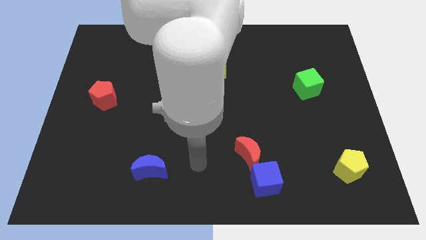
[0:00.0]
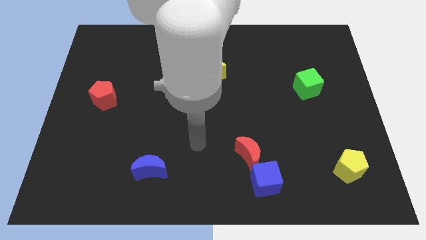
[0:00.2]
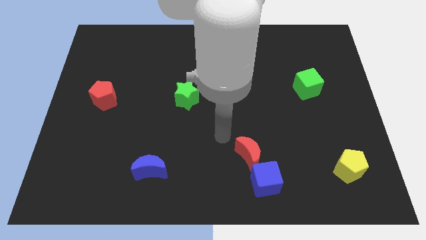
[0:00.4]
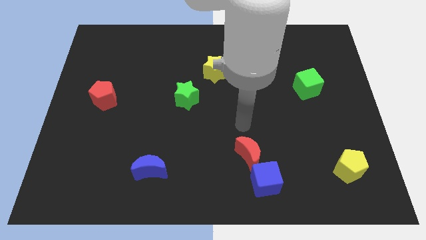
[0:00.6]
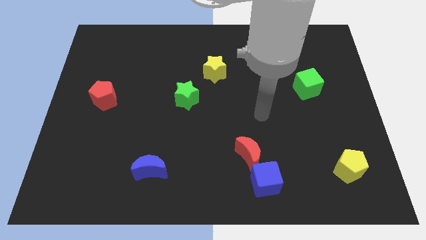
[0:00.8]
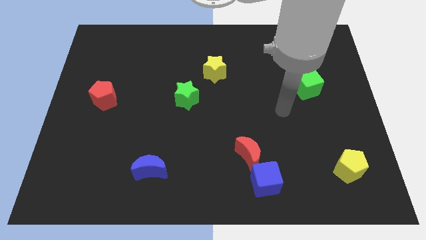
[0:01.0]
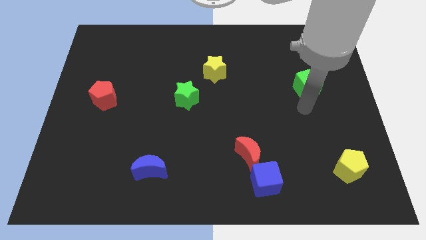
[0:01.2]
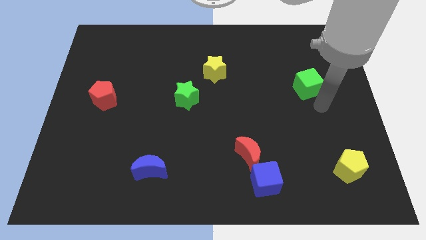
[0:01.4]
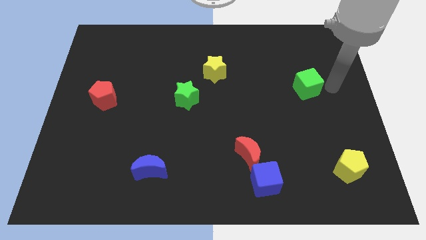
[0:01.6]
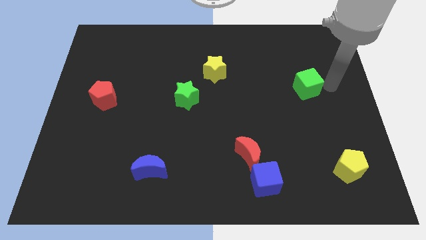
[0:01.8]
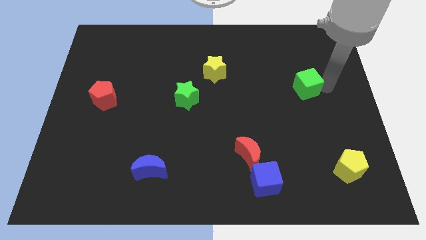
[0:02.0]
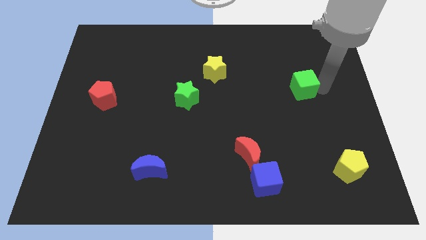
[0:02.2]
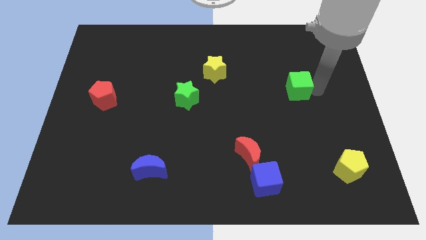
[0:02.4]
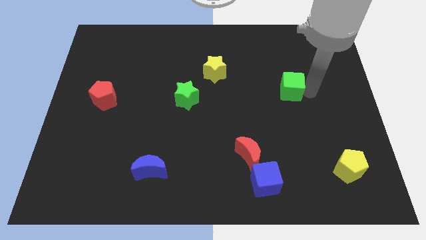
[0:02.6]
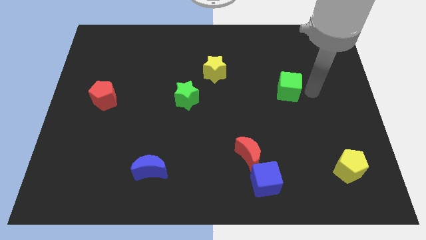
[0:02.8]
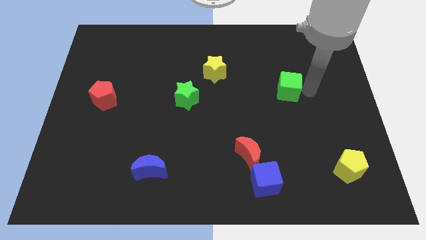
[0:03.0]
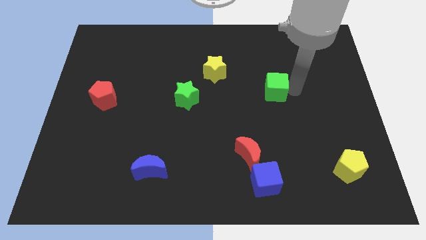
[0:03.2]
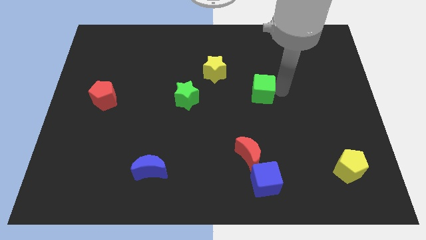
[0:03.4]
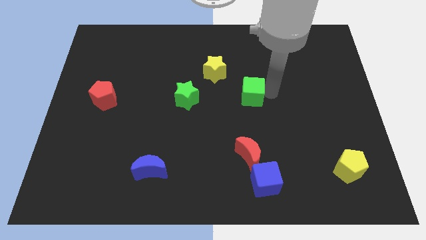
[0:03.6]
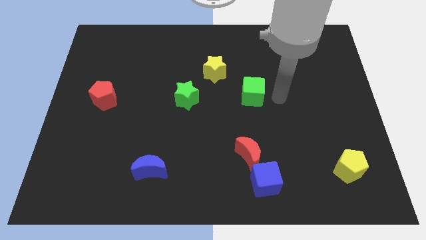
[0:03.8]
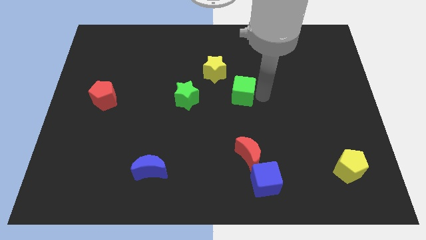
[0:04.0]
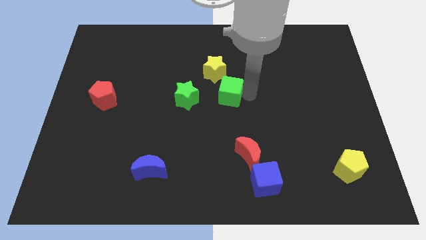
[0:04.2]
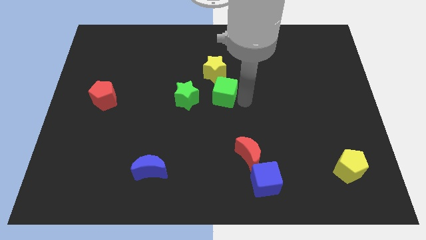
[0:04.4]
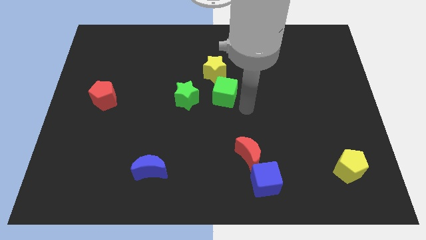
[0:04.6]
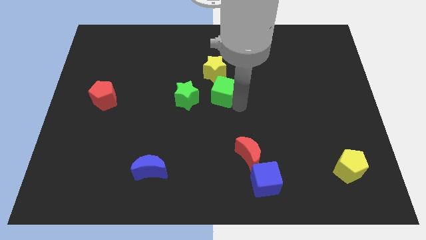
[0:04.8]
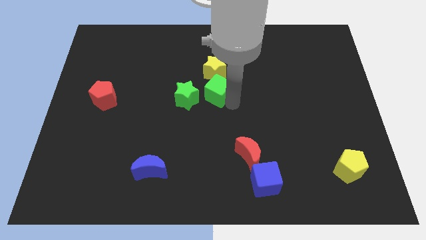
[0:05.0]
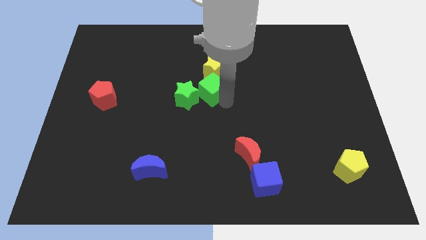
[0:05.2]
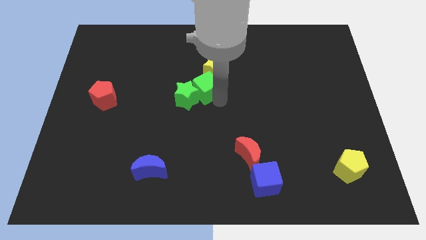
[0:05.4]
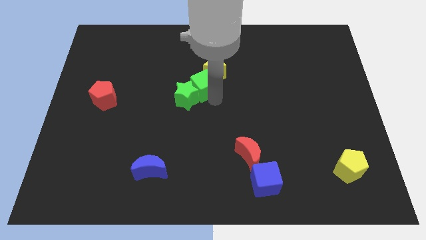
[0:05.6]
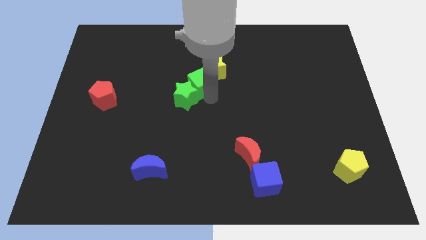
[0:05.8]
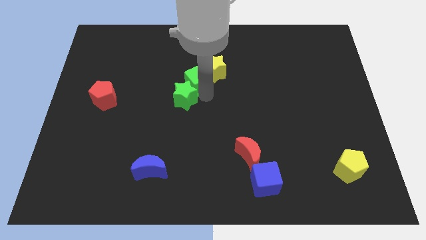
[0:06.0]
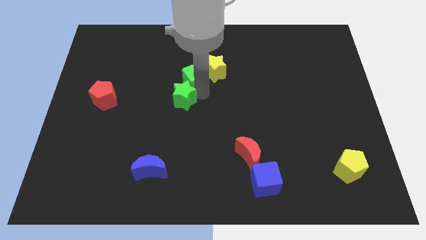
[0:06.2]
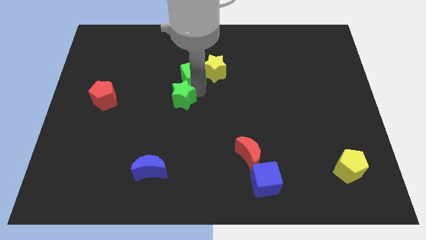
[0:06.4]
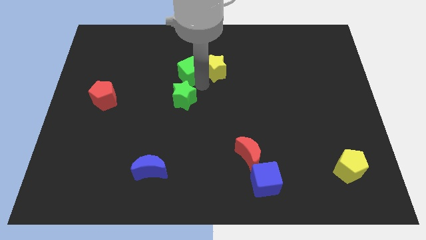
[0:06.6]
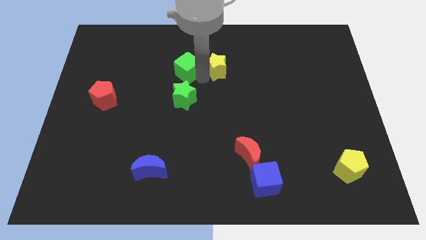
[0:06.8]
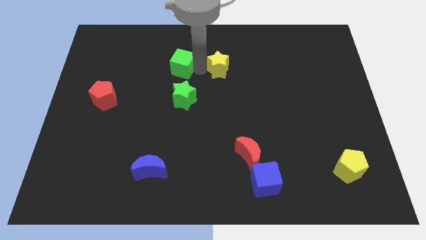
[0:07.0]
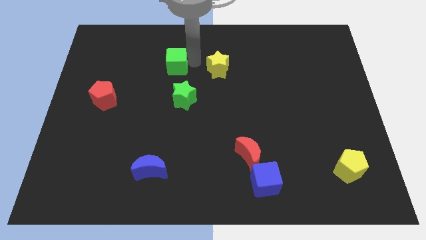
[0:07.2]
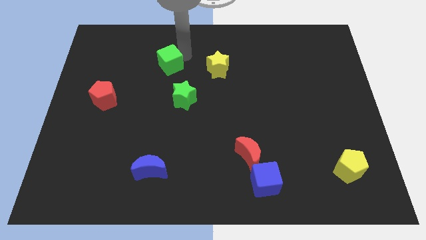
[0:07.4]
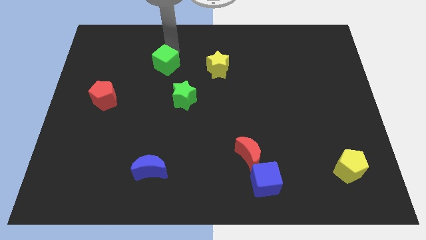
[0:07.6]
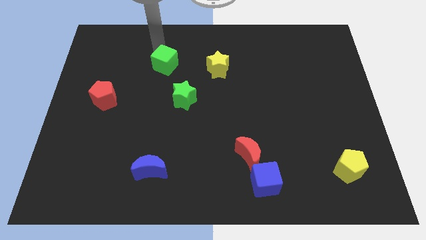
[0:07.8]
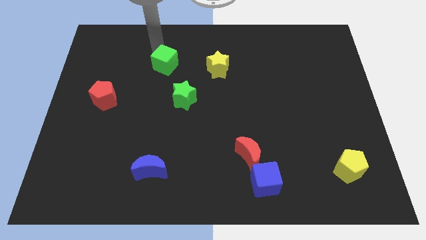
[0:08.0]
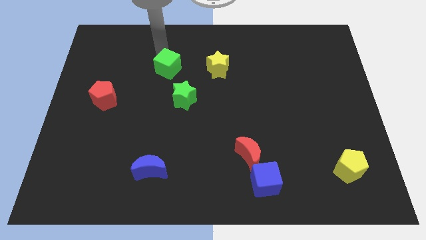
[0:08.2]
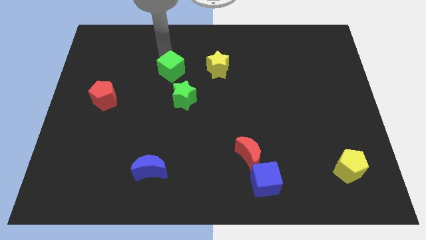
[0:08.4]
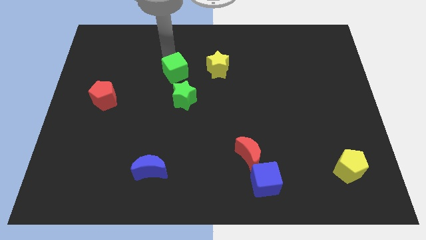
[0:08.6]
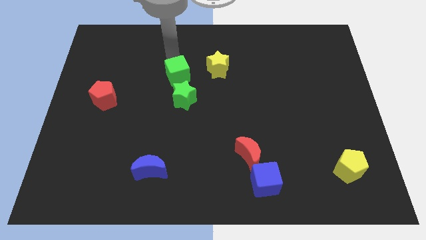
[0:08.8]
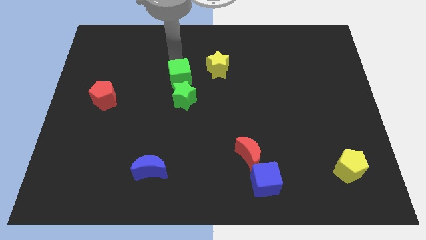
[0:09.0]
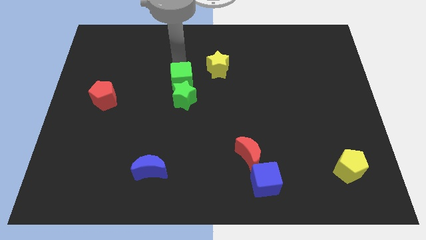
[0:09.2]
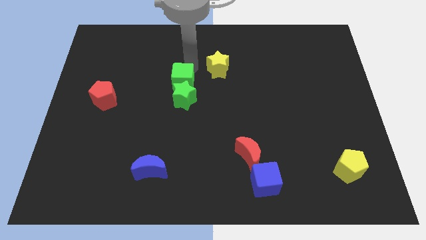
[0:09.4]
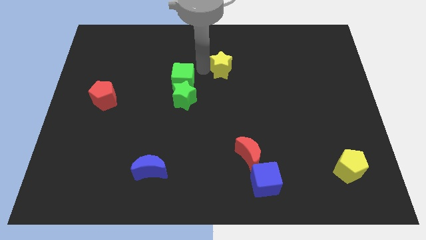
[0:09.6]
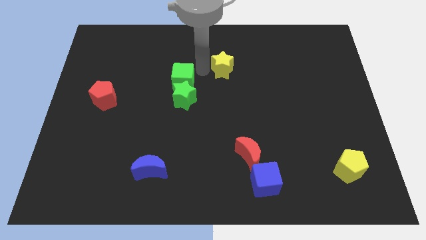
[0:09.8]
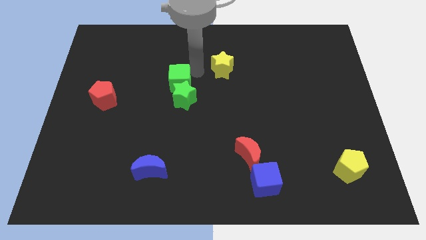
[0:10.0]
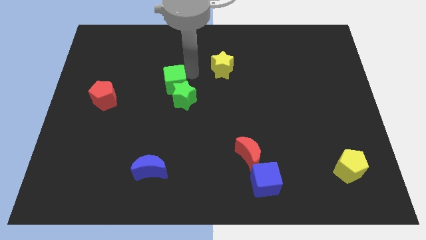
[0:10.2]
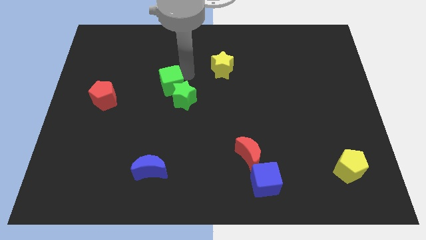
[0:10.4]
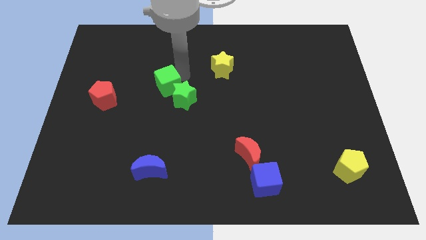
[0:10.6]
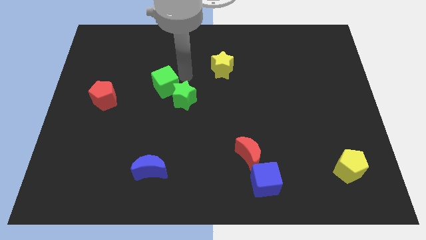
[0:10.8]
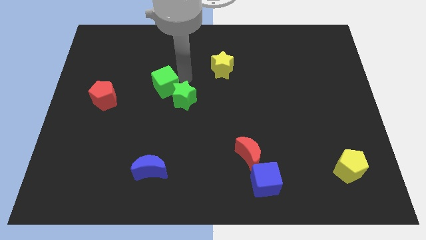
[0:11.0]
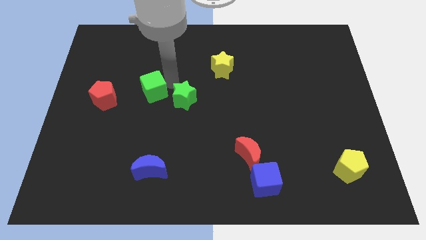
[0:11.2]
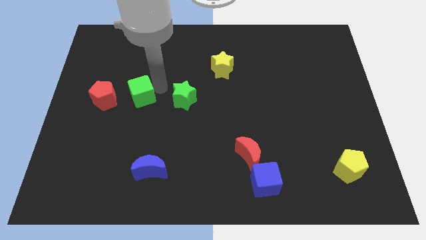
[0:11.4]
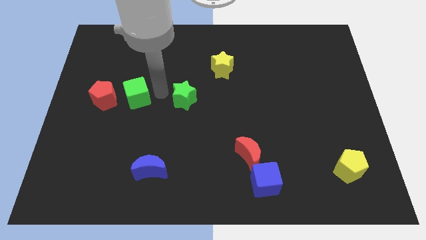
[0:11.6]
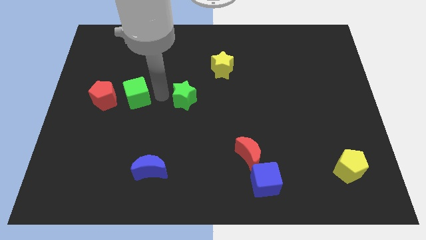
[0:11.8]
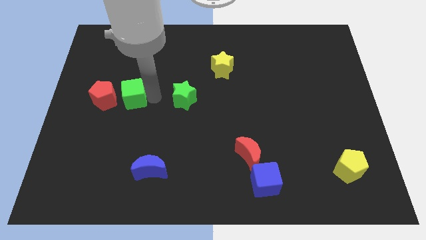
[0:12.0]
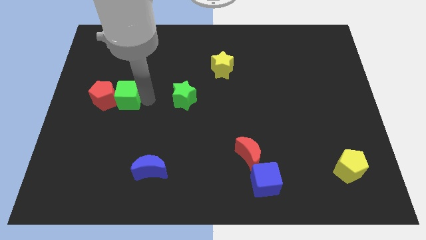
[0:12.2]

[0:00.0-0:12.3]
move the green cube close to the red pentagon

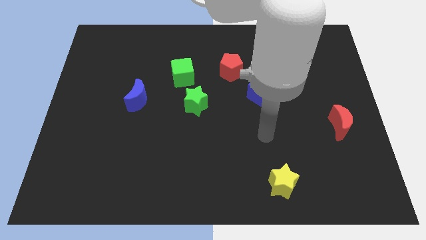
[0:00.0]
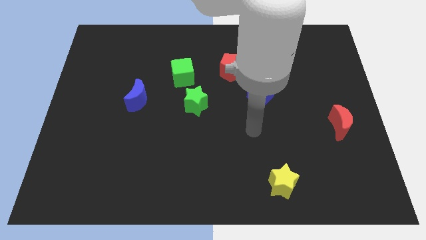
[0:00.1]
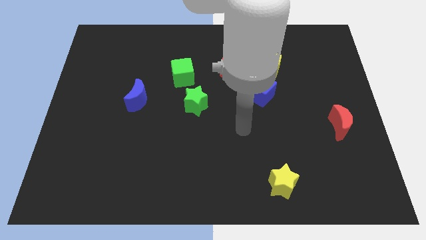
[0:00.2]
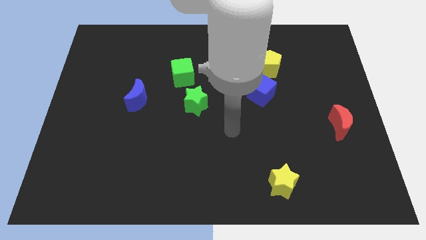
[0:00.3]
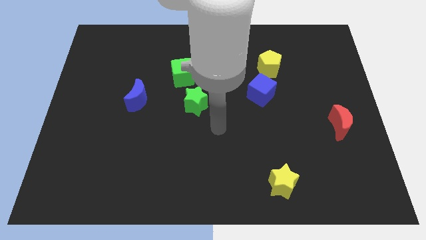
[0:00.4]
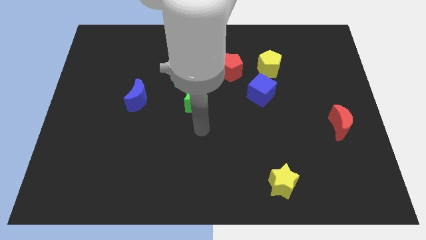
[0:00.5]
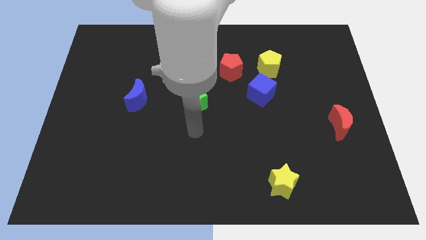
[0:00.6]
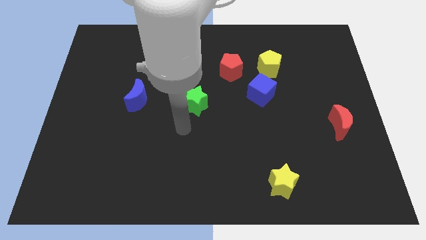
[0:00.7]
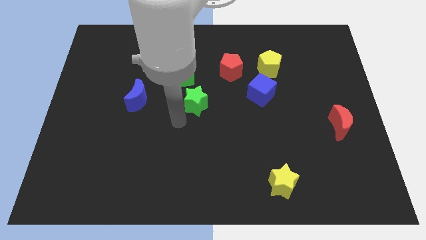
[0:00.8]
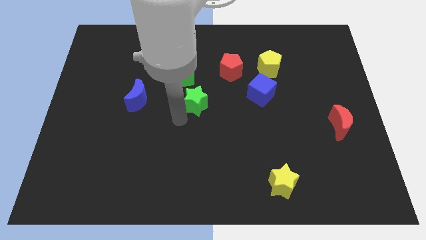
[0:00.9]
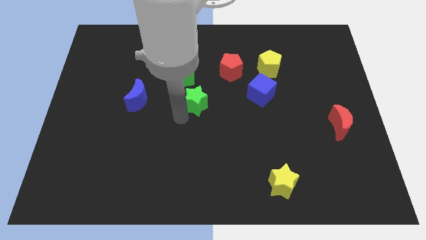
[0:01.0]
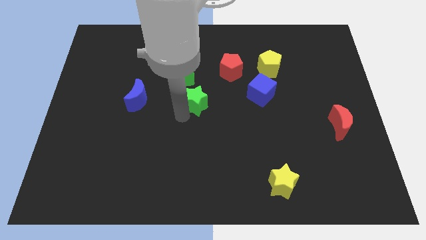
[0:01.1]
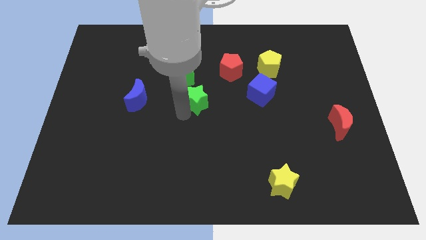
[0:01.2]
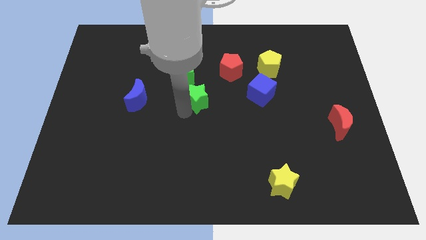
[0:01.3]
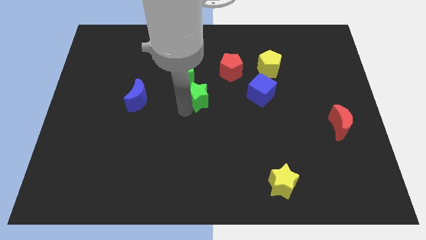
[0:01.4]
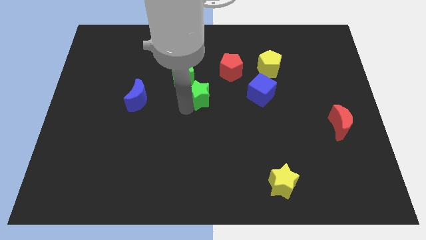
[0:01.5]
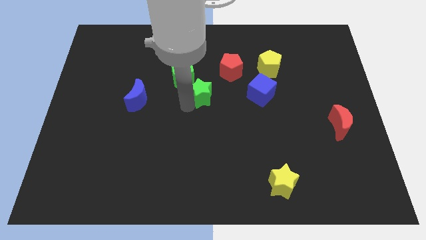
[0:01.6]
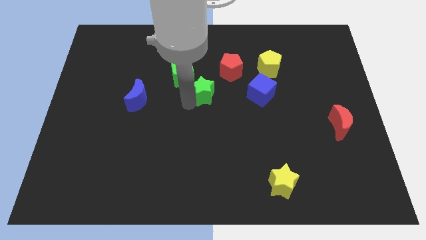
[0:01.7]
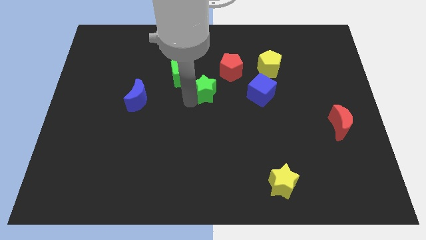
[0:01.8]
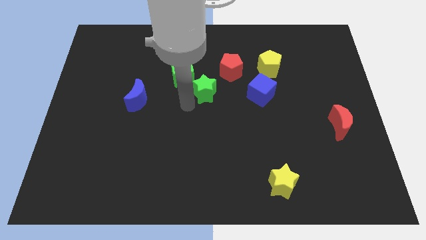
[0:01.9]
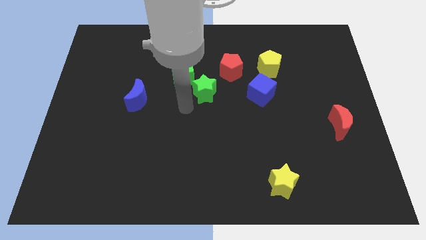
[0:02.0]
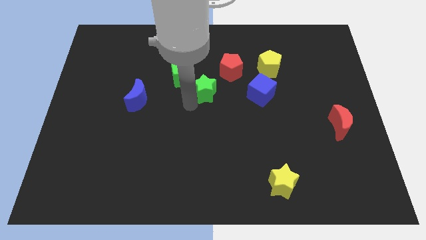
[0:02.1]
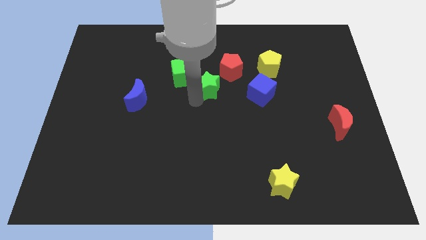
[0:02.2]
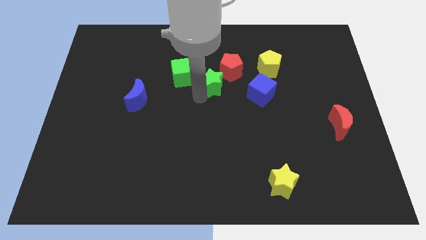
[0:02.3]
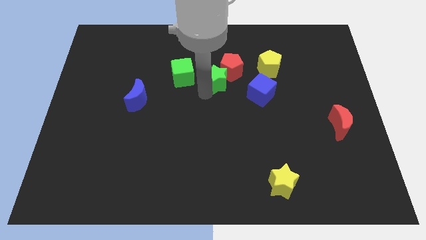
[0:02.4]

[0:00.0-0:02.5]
slide the green star towards the red pentagon
